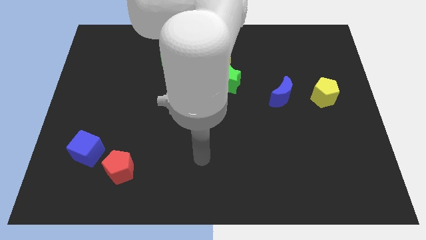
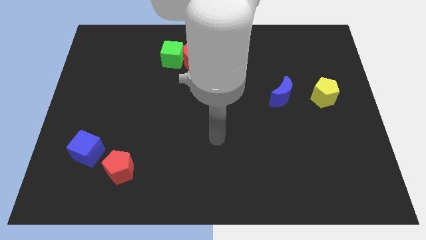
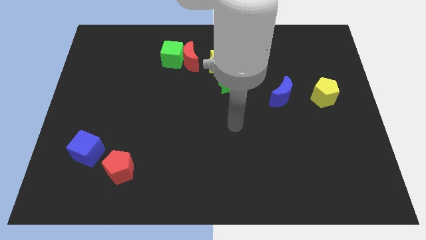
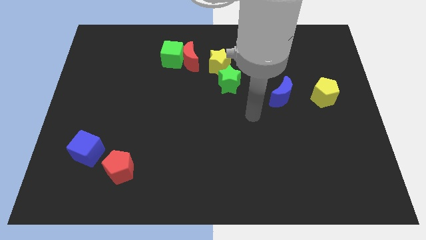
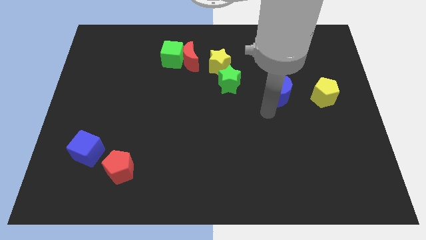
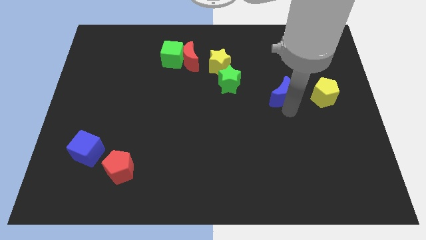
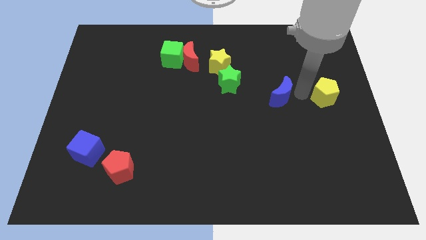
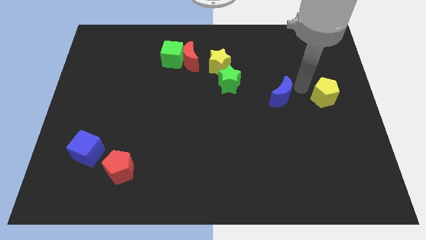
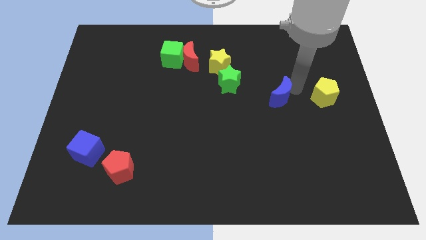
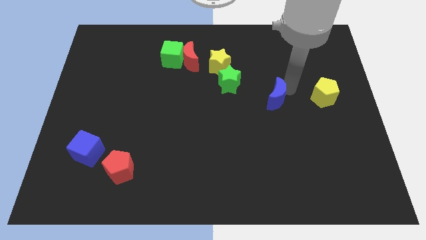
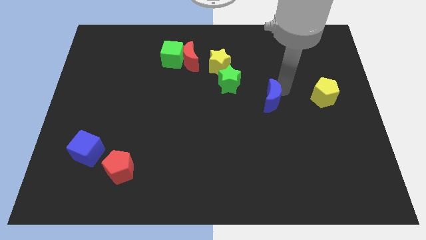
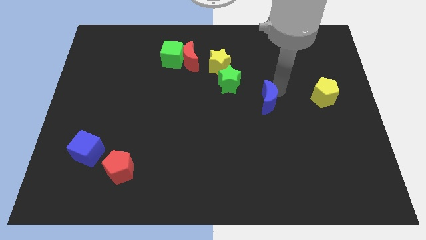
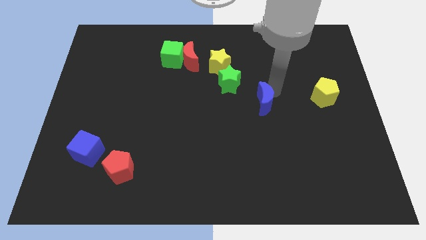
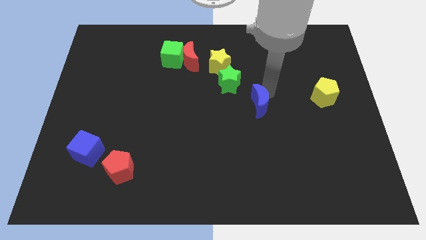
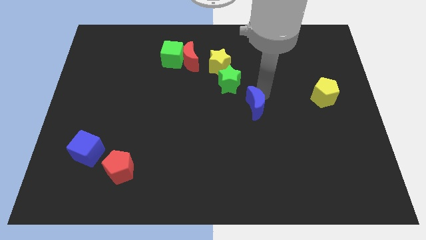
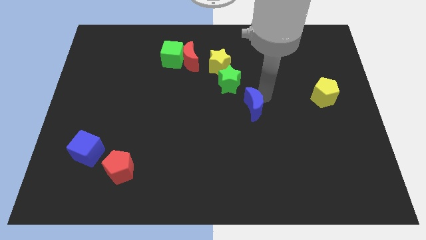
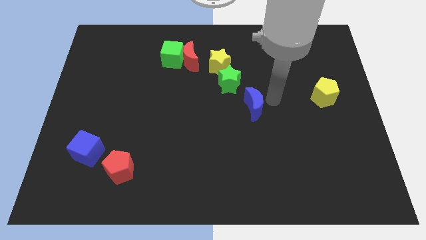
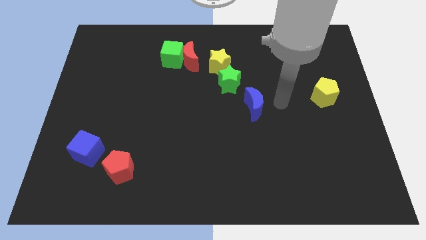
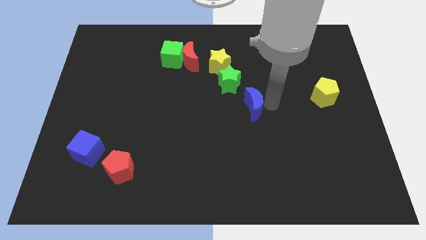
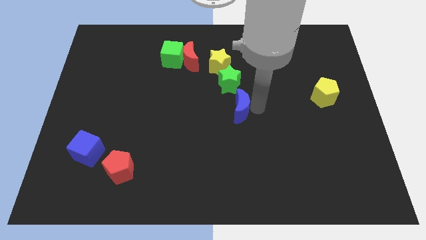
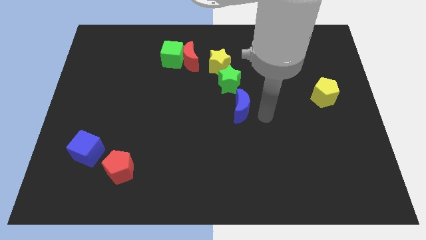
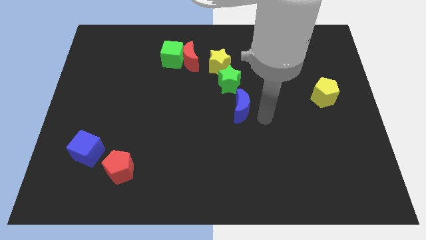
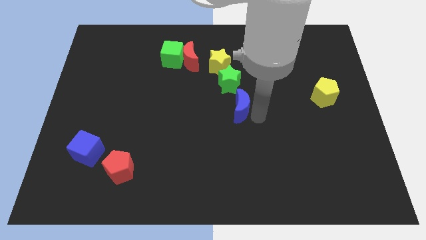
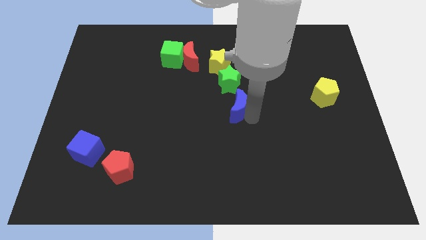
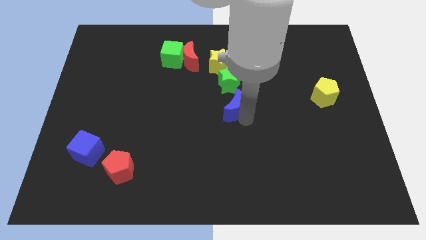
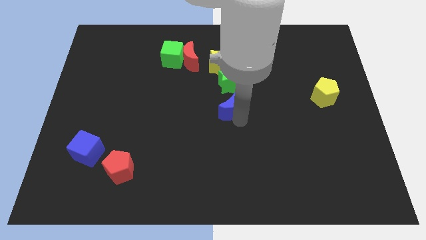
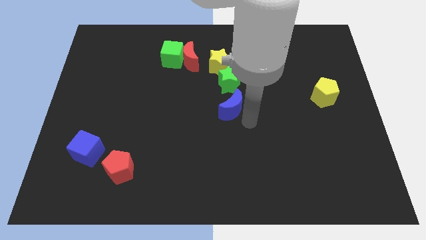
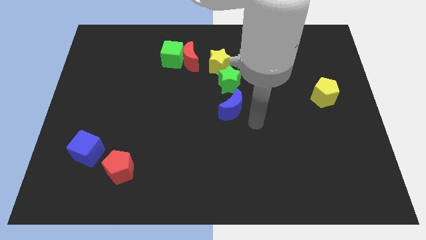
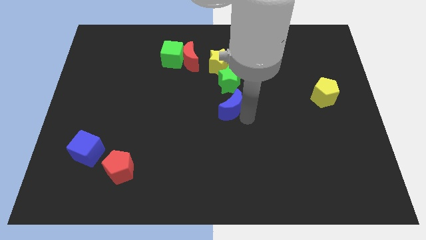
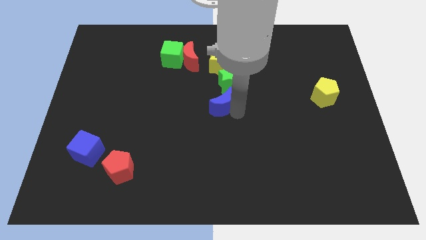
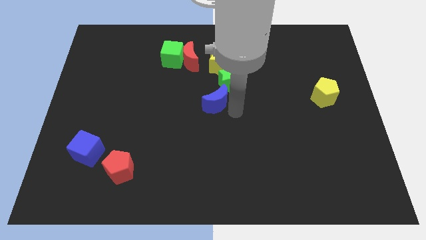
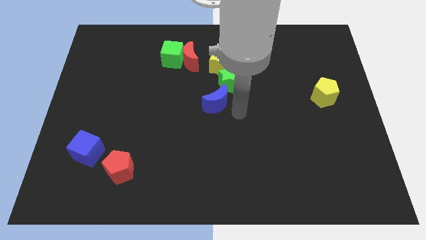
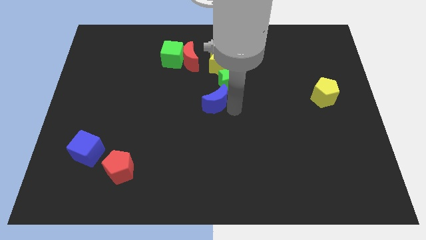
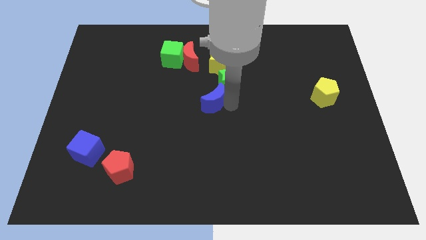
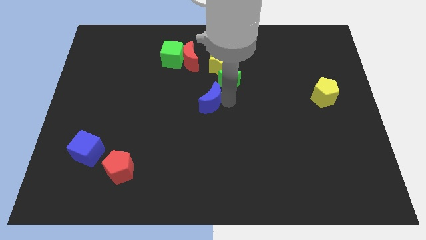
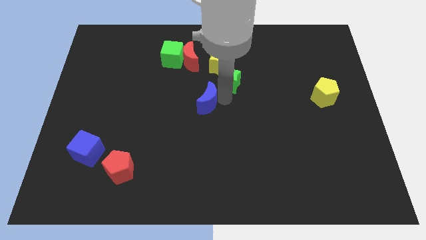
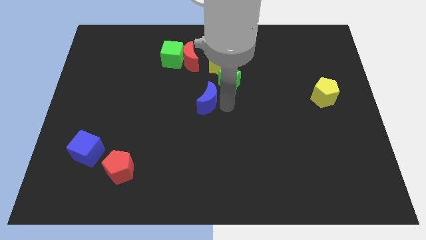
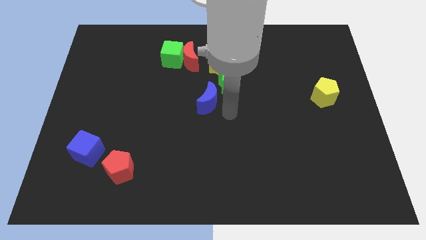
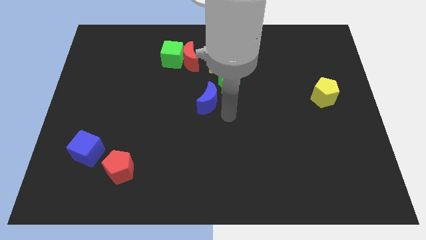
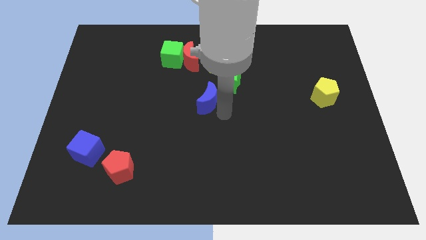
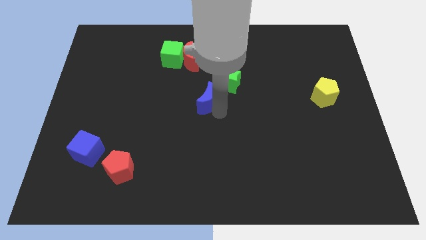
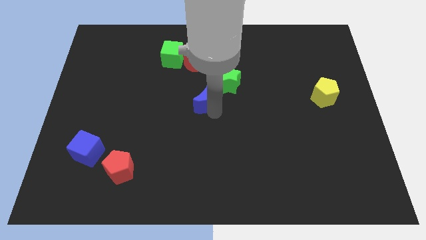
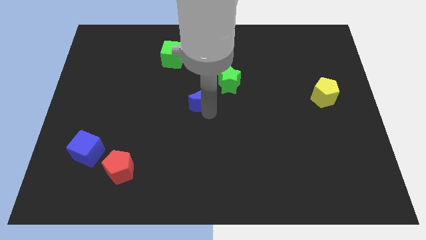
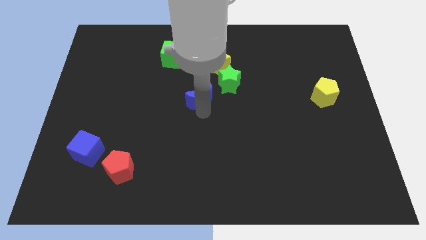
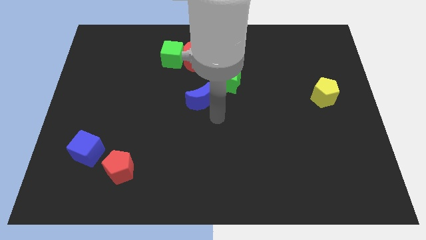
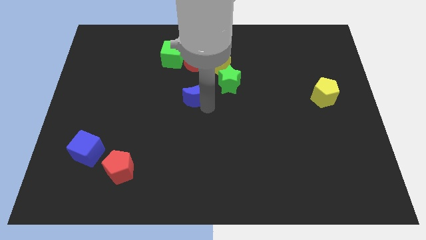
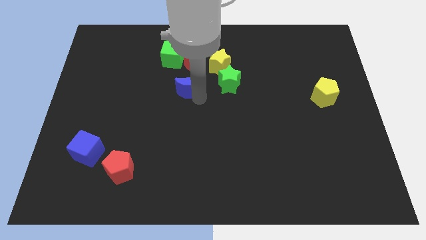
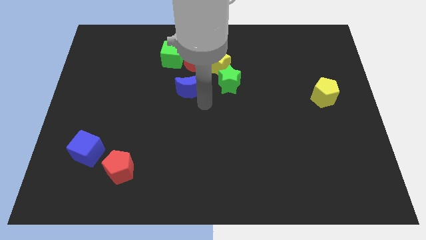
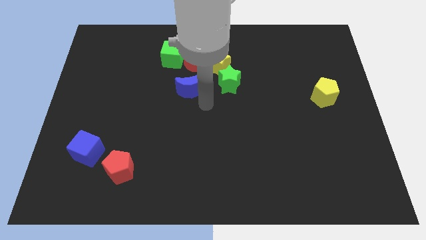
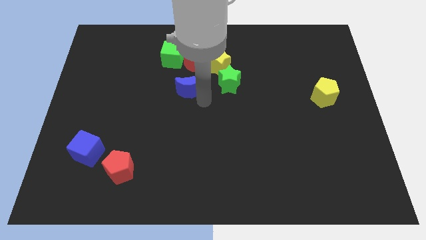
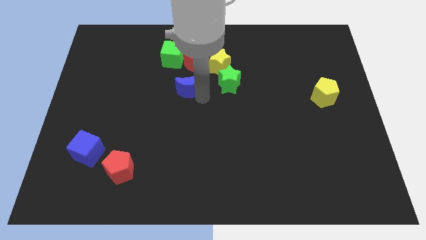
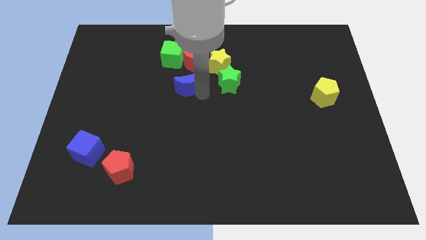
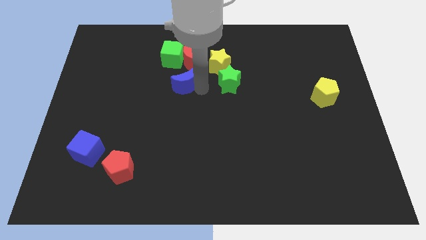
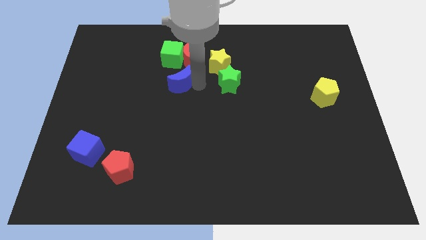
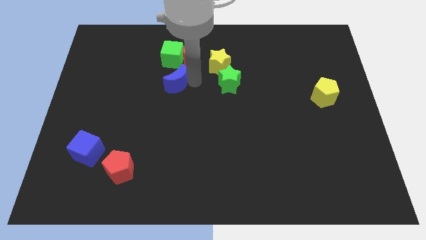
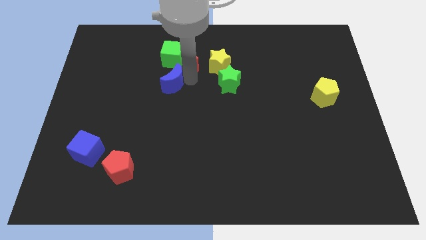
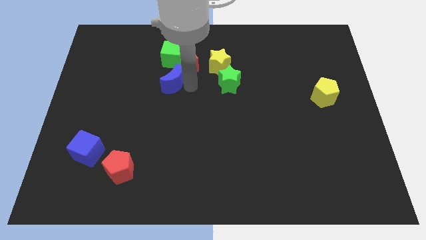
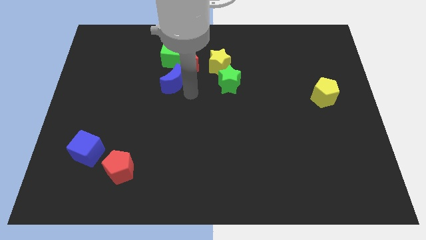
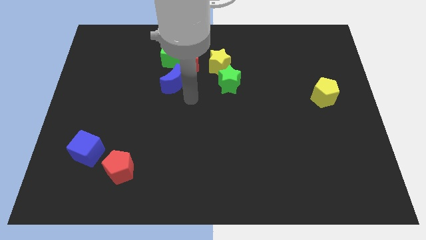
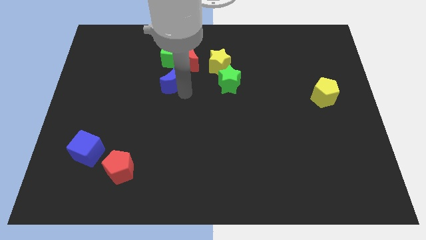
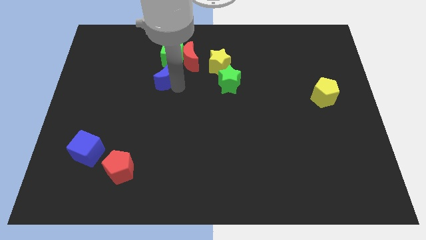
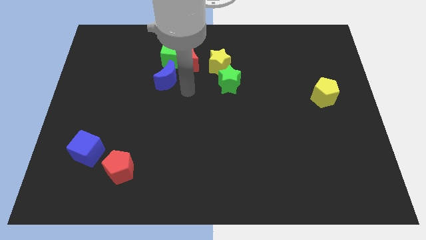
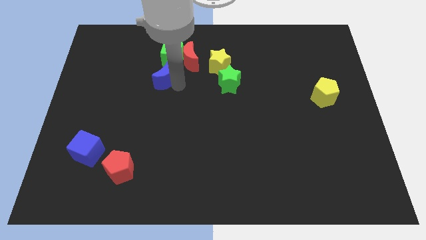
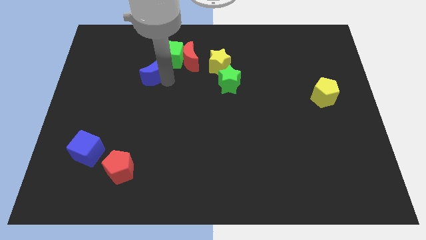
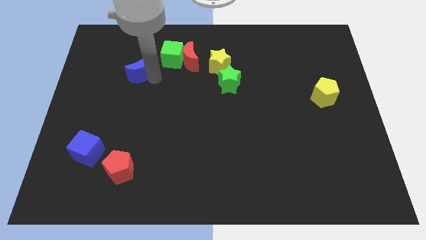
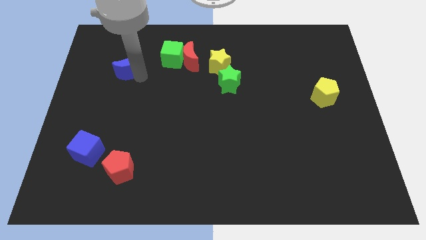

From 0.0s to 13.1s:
move the blue moon to the left of the green cube

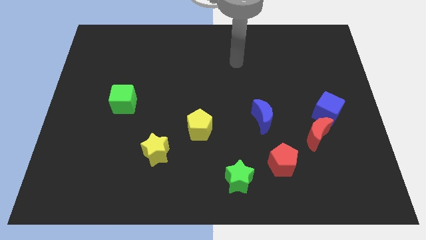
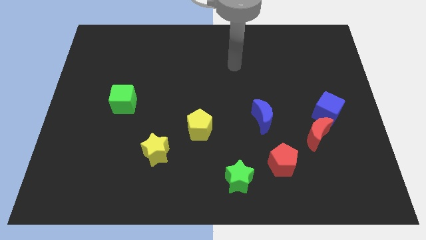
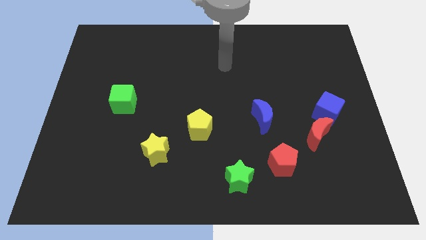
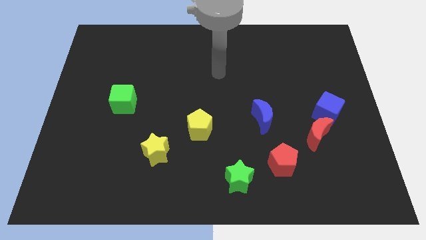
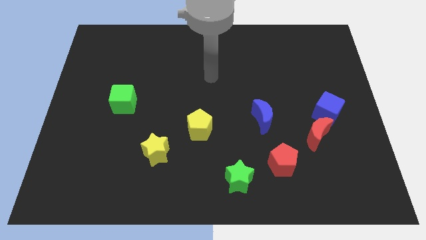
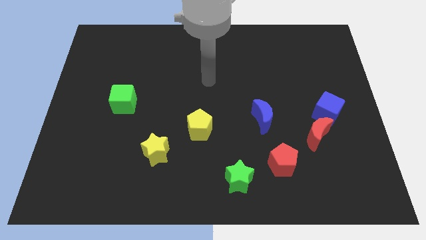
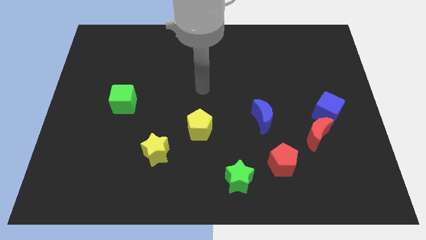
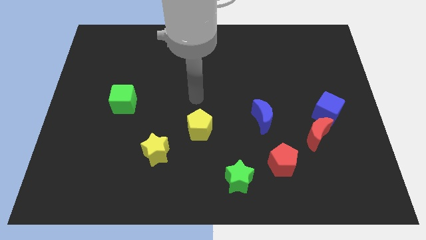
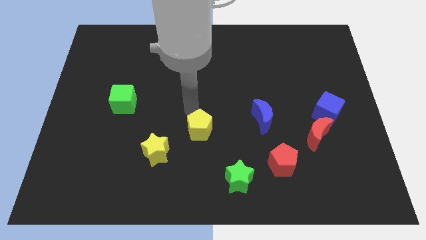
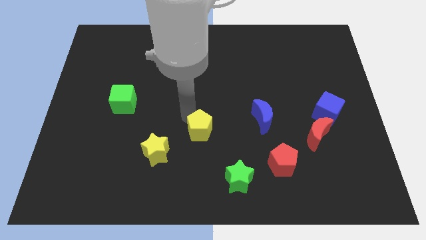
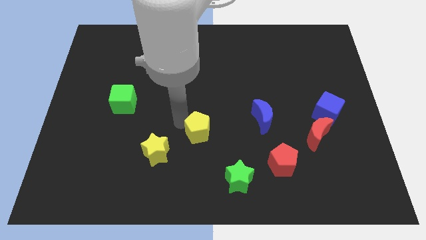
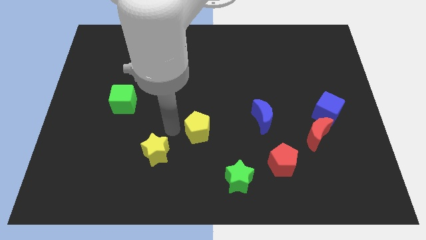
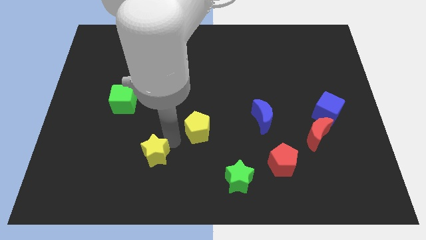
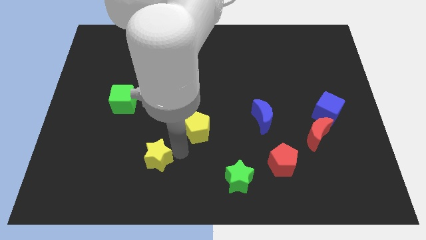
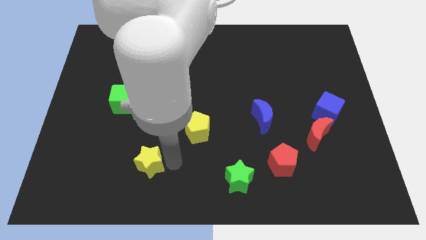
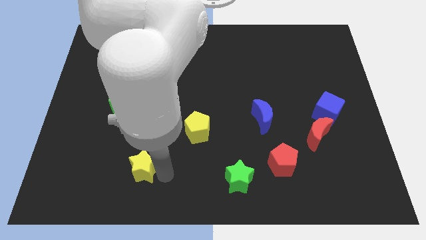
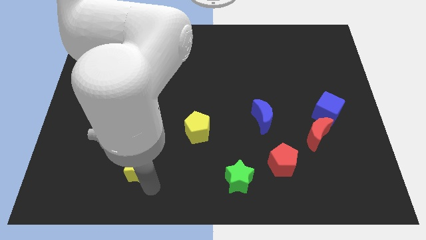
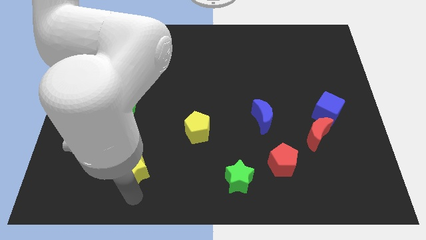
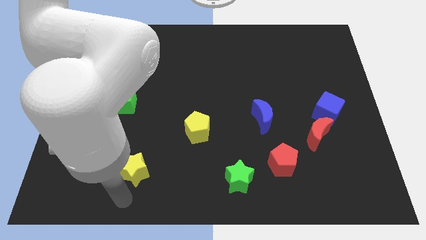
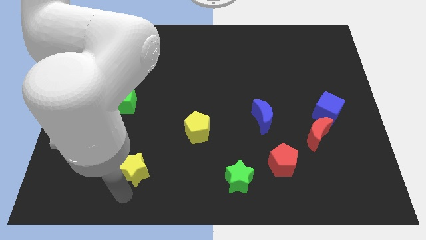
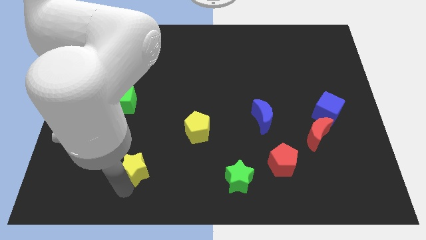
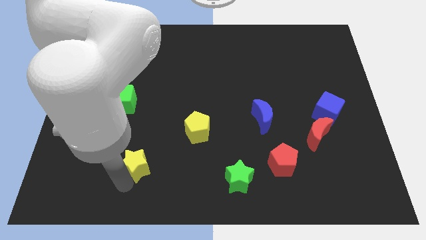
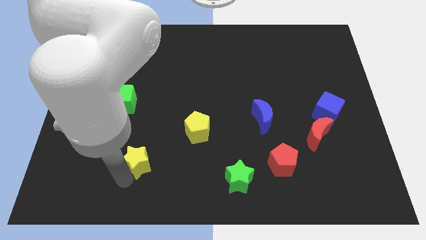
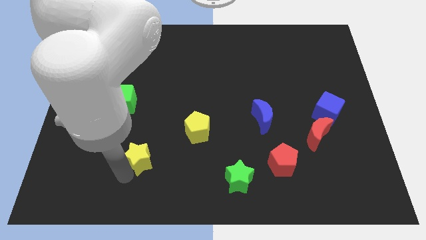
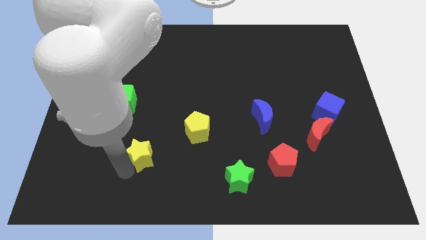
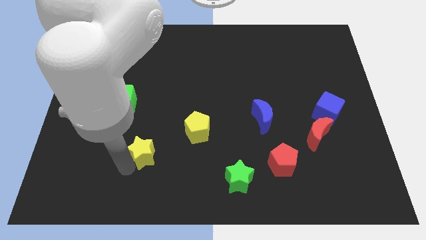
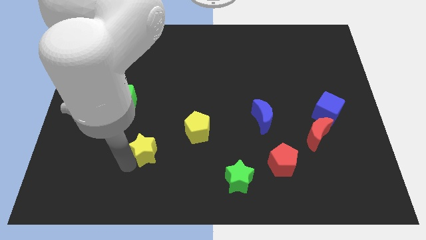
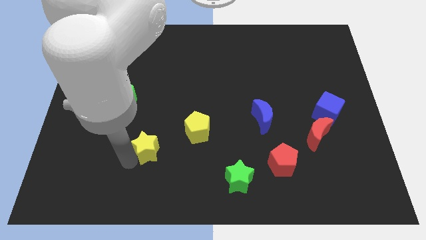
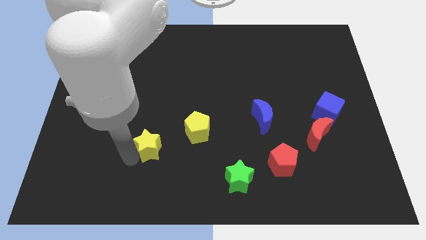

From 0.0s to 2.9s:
move the yellow star just left of the yellow pentagon
